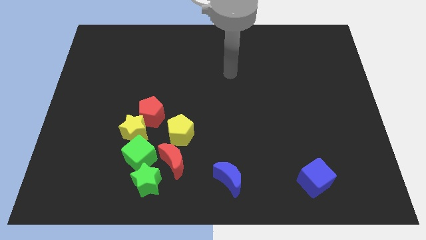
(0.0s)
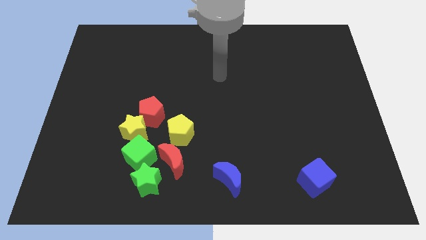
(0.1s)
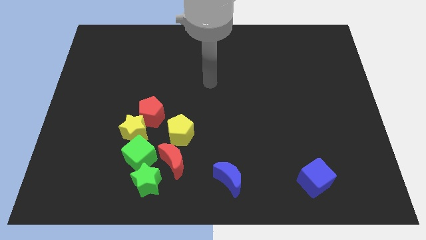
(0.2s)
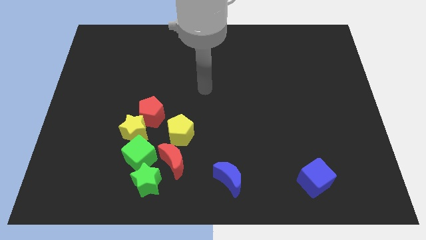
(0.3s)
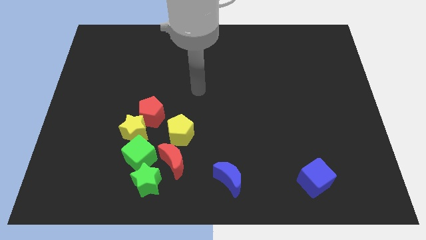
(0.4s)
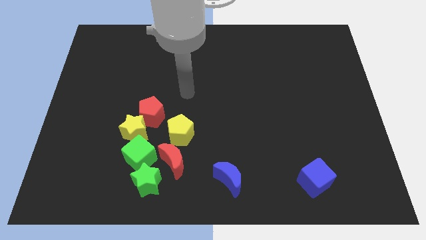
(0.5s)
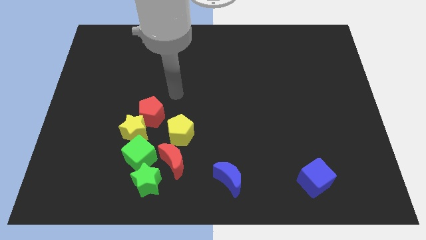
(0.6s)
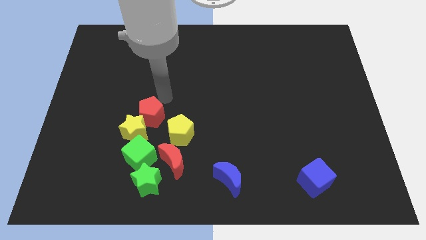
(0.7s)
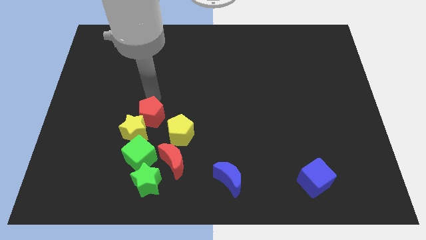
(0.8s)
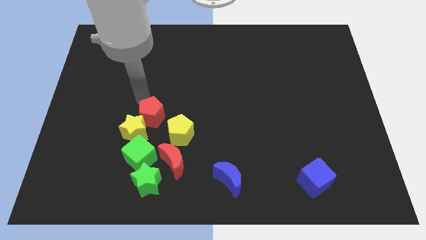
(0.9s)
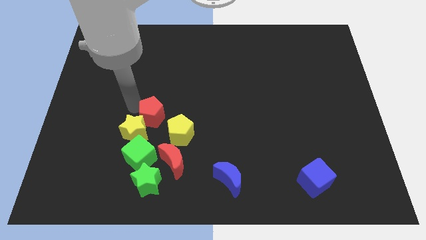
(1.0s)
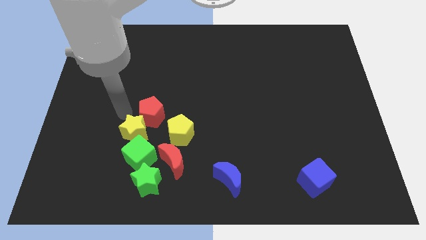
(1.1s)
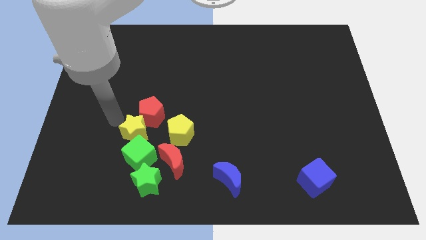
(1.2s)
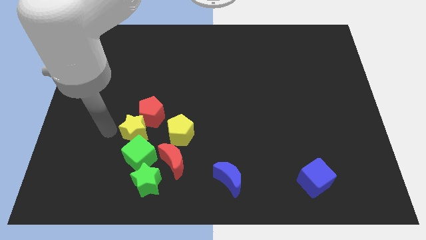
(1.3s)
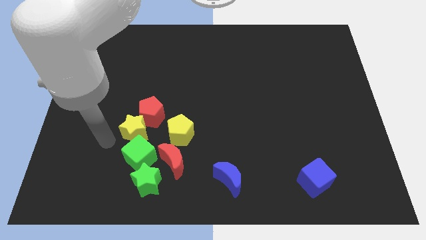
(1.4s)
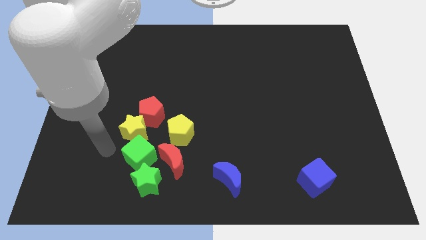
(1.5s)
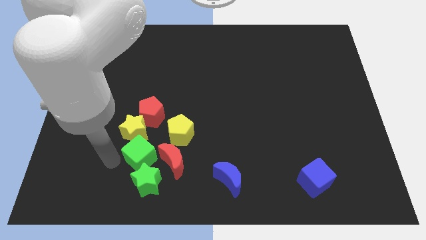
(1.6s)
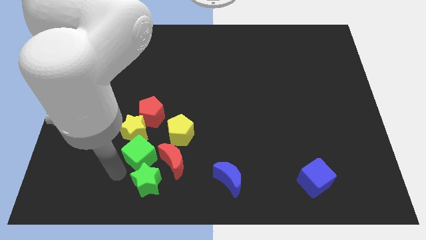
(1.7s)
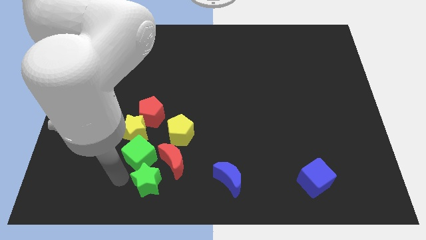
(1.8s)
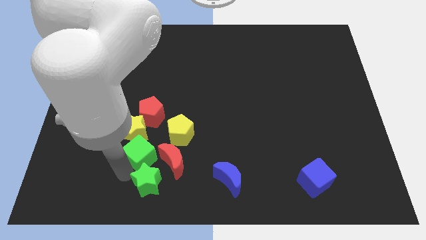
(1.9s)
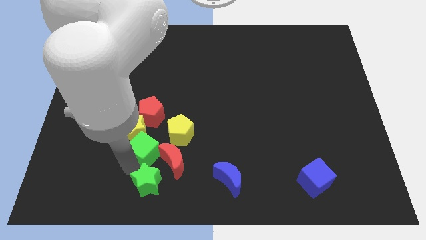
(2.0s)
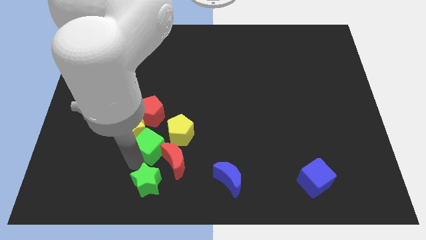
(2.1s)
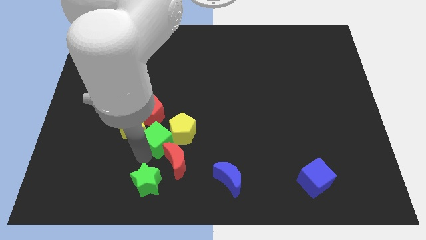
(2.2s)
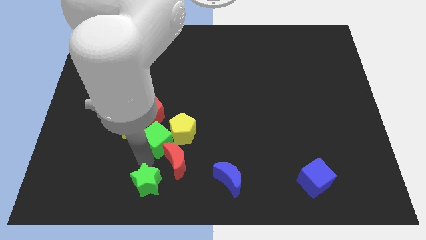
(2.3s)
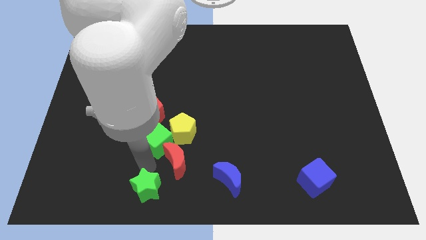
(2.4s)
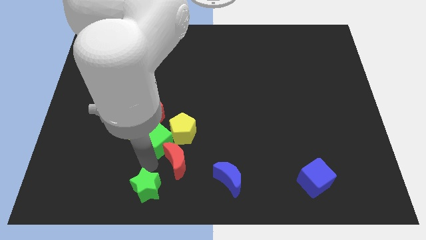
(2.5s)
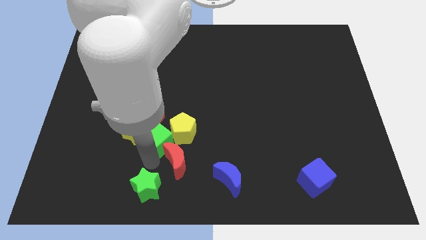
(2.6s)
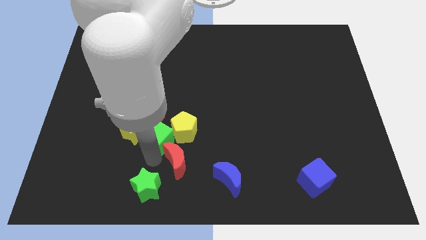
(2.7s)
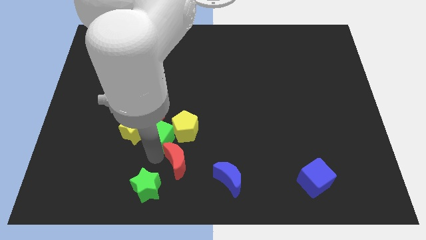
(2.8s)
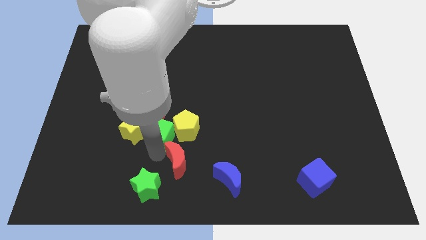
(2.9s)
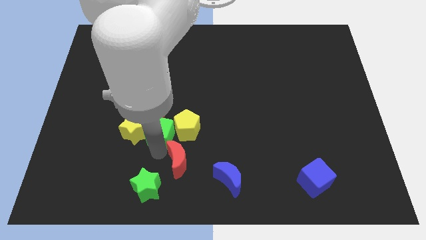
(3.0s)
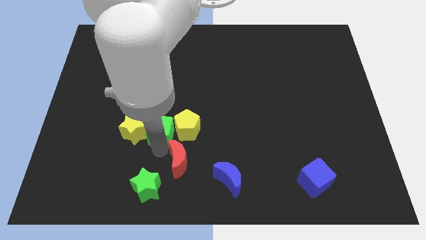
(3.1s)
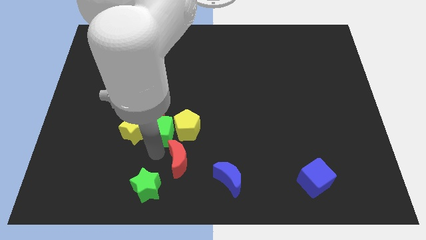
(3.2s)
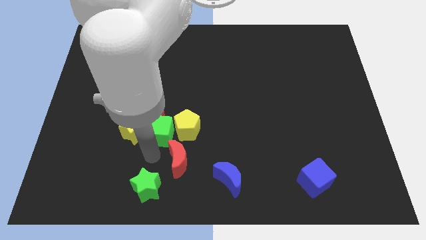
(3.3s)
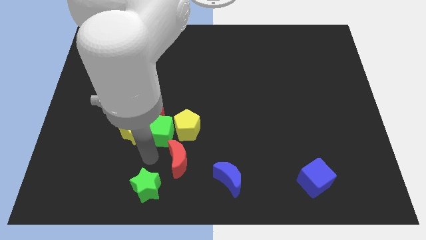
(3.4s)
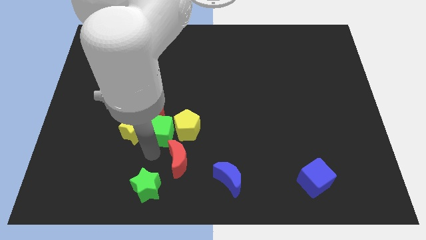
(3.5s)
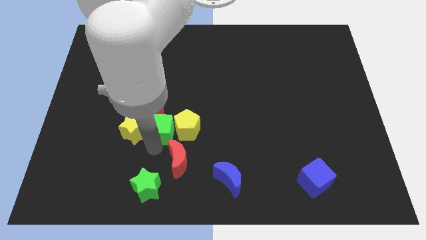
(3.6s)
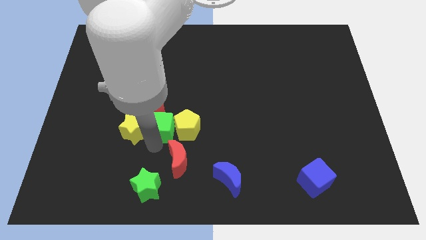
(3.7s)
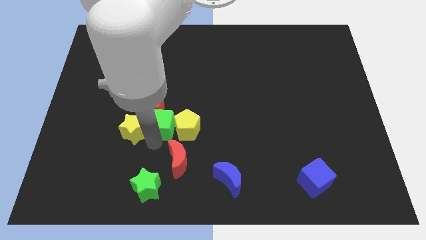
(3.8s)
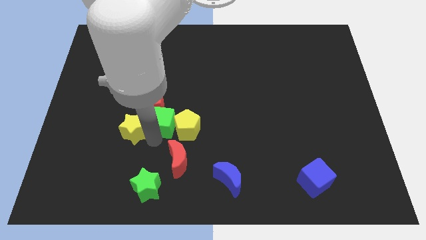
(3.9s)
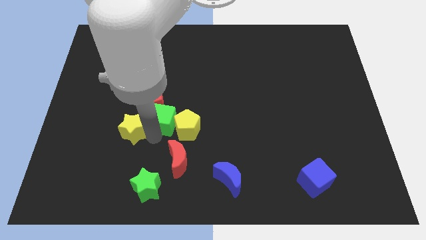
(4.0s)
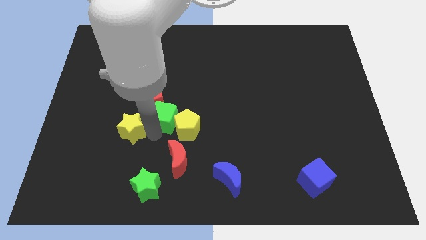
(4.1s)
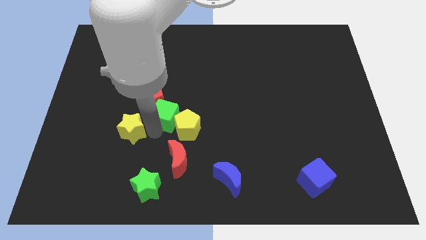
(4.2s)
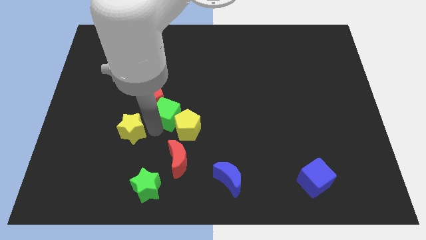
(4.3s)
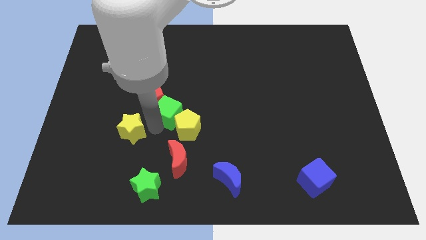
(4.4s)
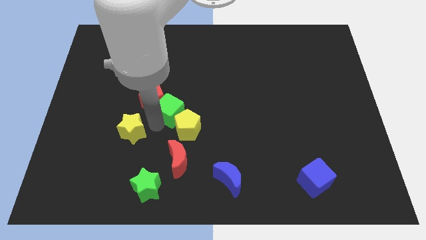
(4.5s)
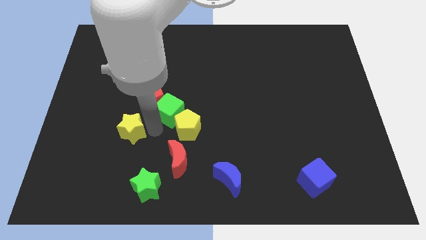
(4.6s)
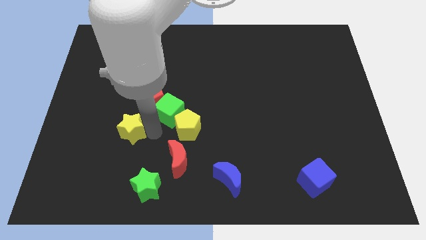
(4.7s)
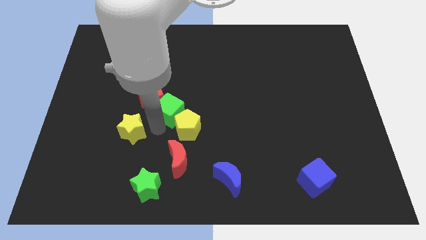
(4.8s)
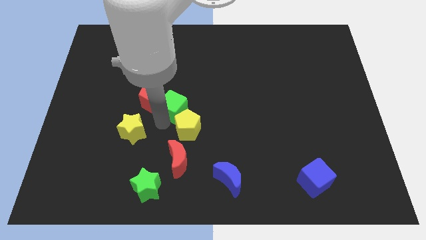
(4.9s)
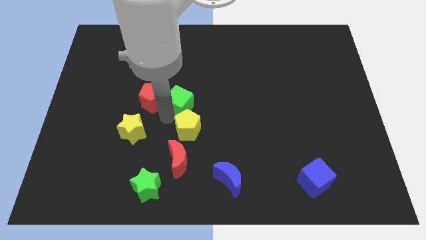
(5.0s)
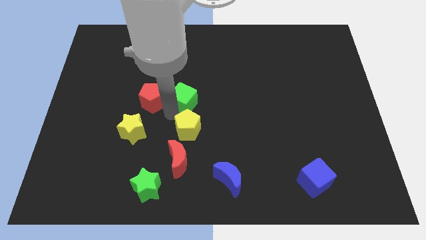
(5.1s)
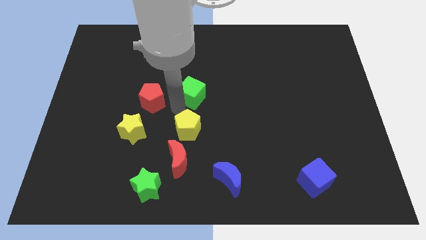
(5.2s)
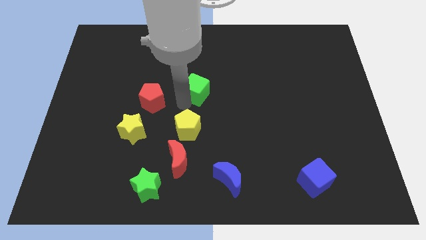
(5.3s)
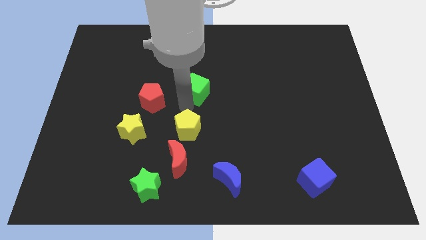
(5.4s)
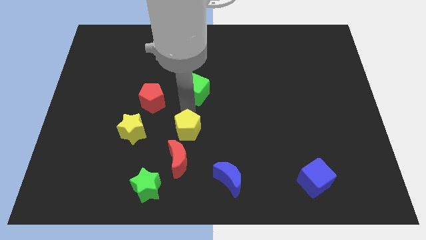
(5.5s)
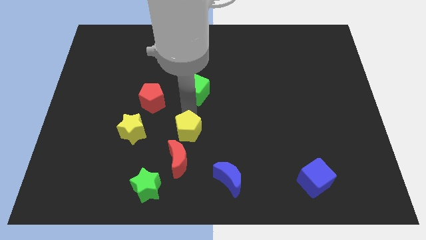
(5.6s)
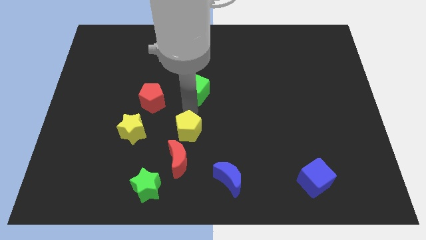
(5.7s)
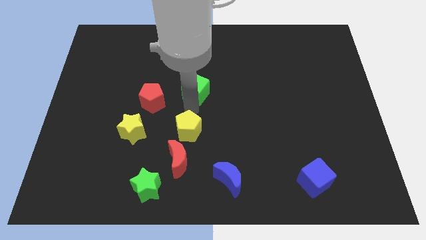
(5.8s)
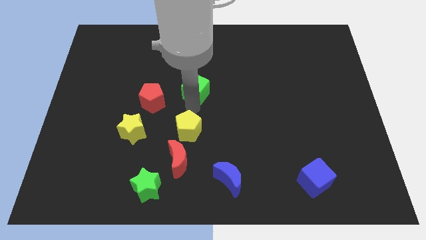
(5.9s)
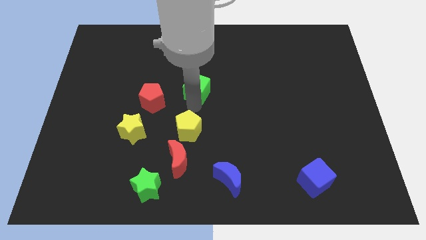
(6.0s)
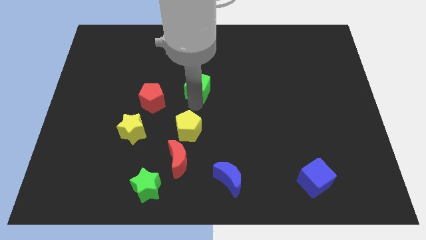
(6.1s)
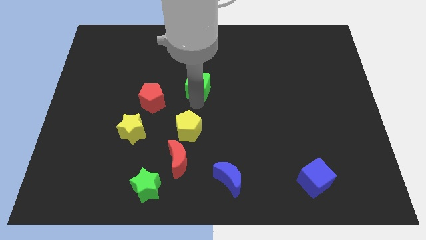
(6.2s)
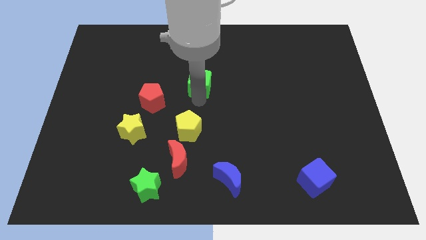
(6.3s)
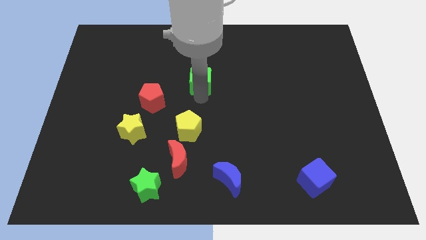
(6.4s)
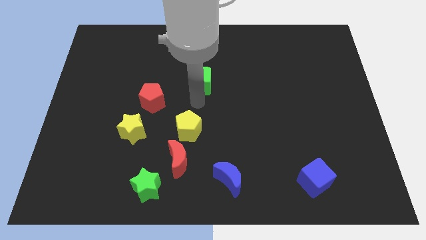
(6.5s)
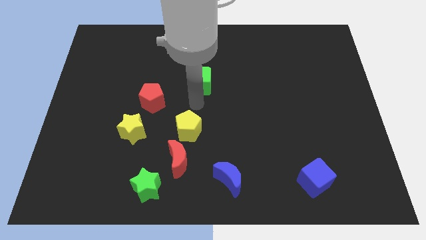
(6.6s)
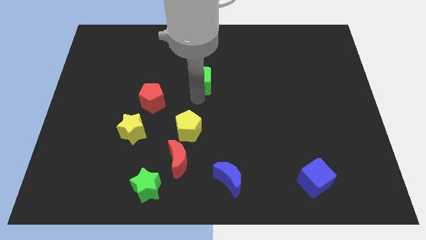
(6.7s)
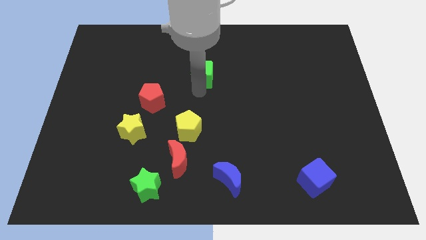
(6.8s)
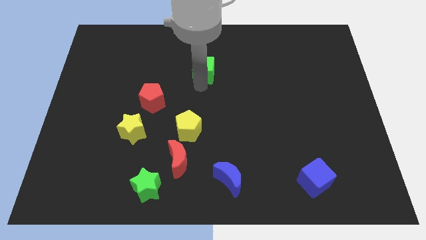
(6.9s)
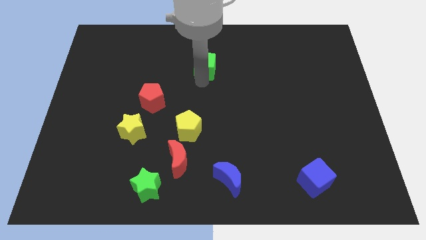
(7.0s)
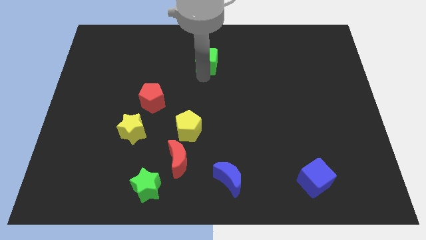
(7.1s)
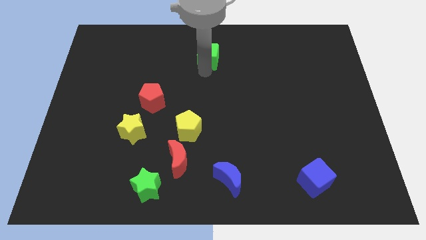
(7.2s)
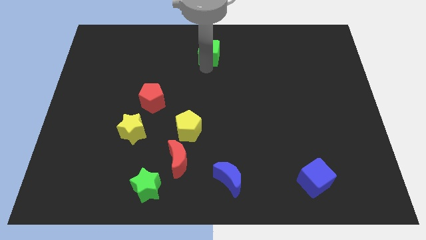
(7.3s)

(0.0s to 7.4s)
push the green cube to the top side
